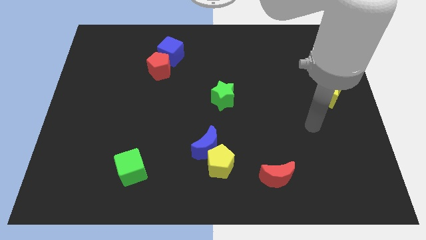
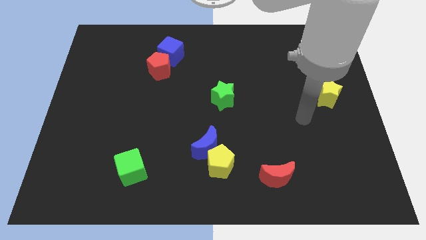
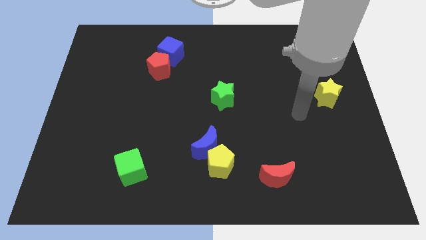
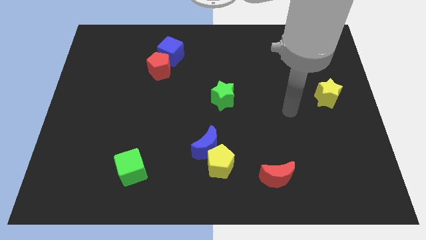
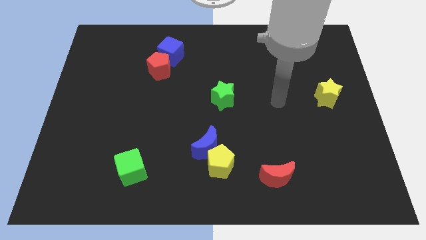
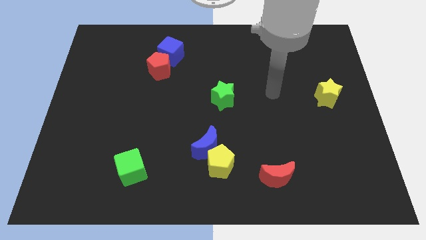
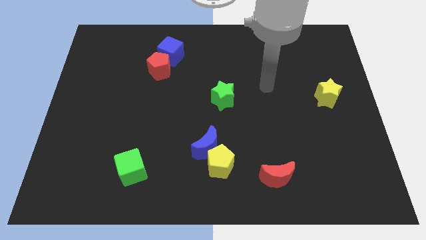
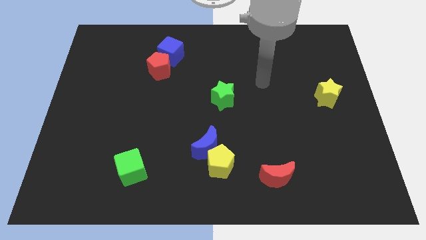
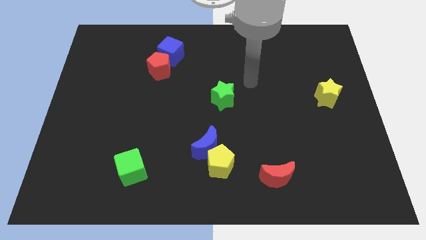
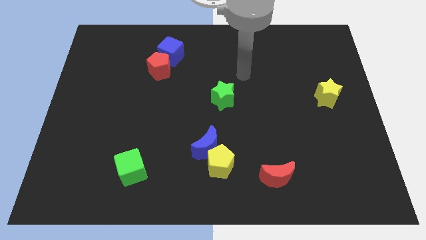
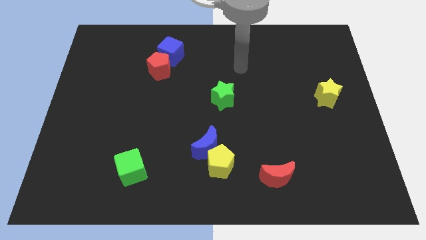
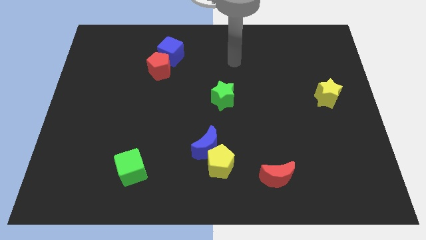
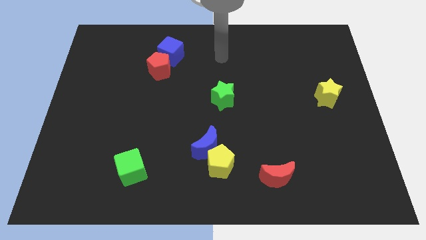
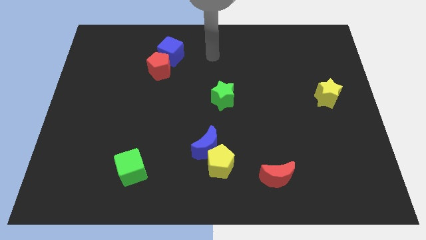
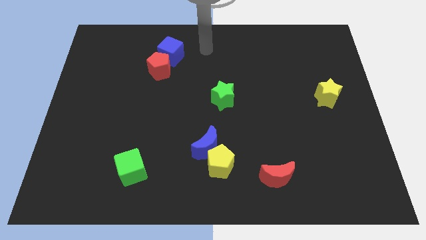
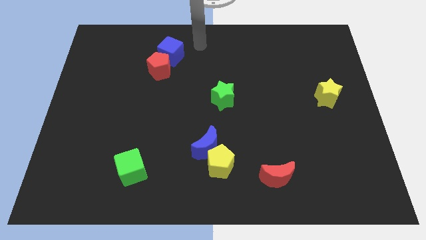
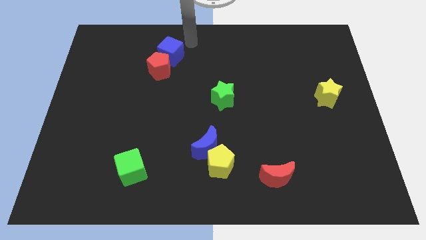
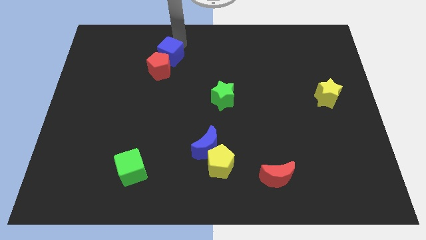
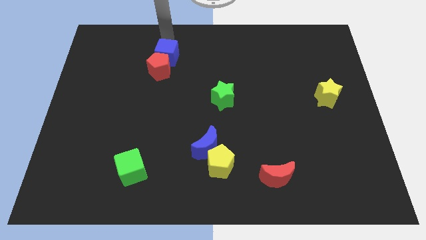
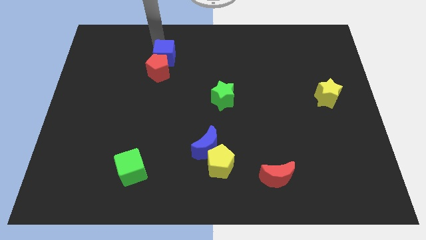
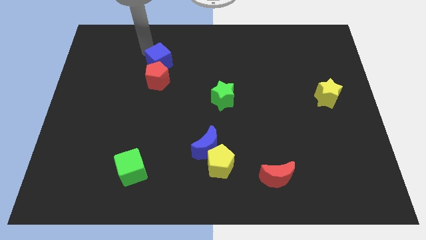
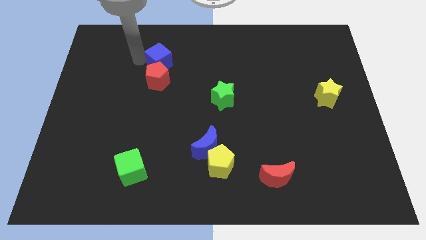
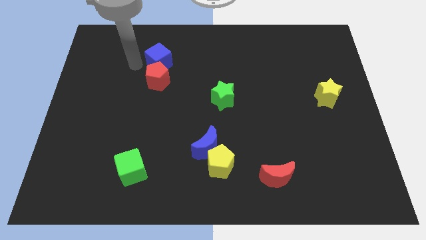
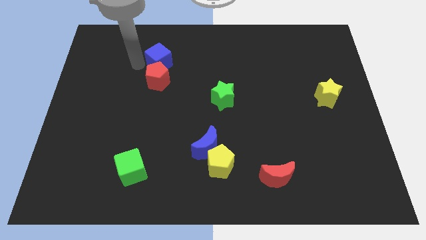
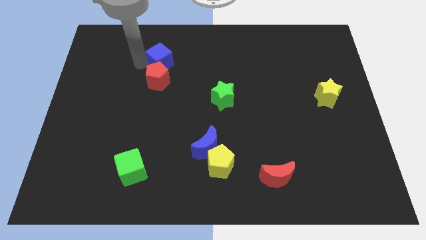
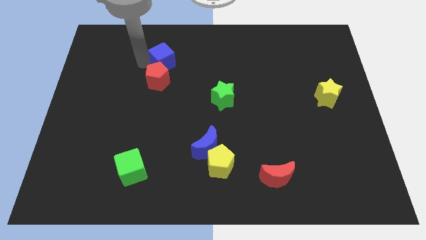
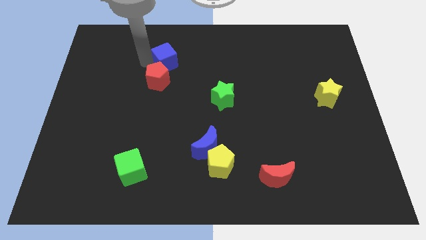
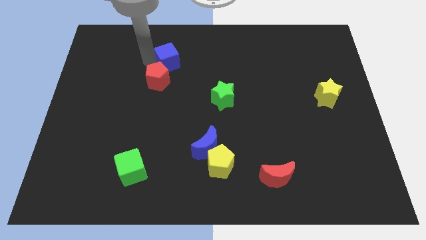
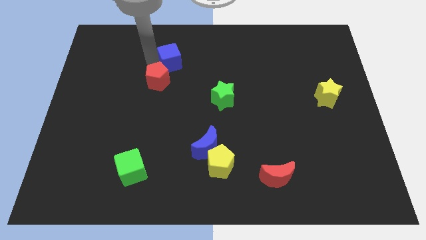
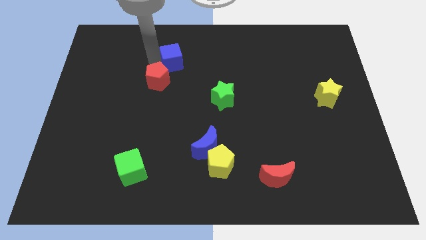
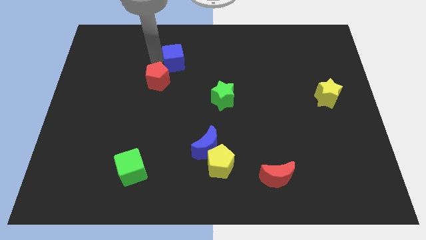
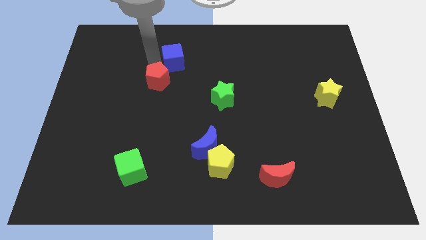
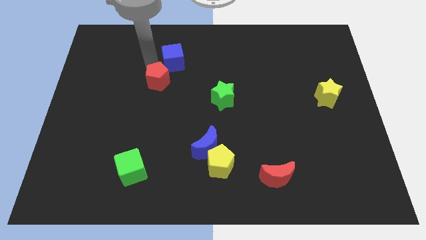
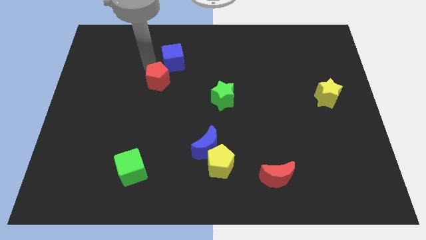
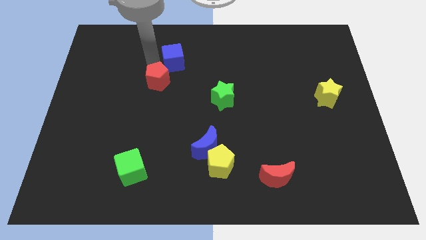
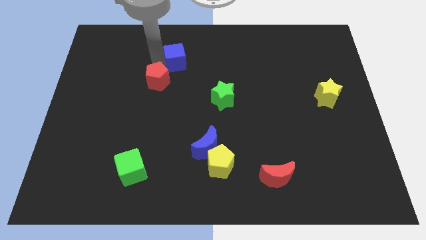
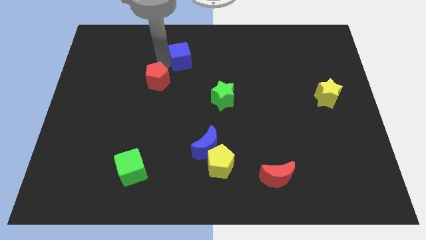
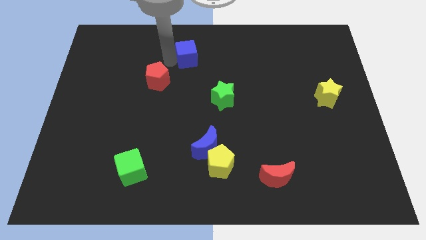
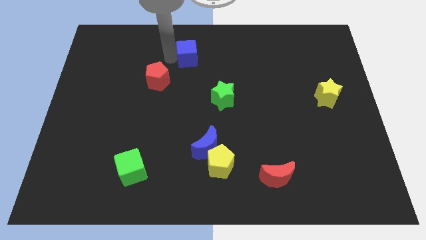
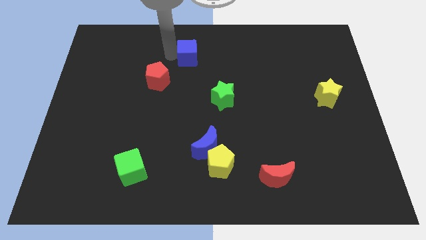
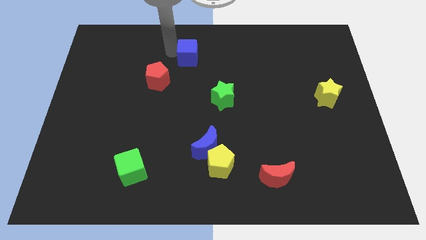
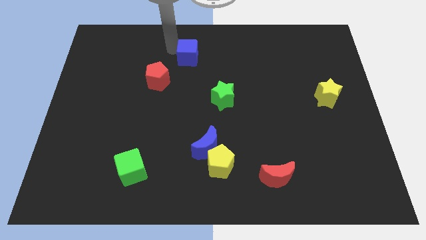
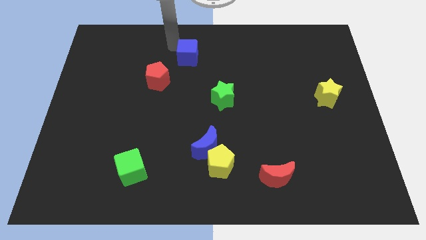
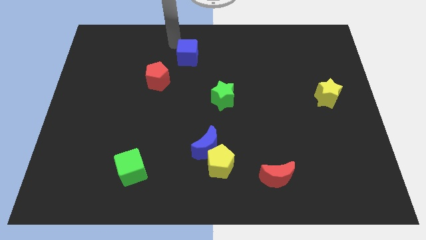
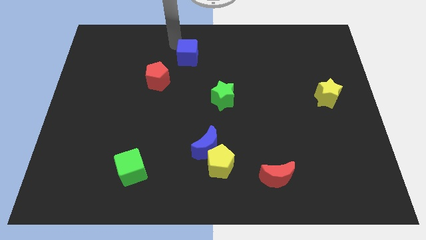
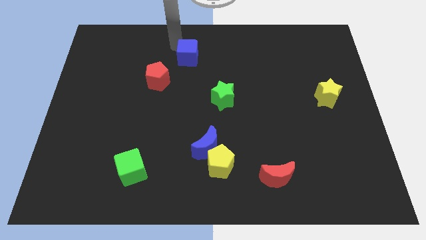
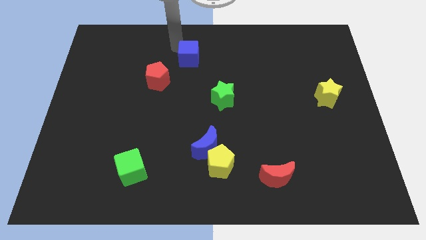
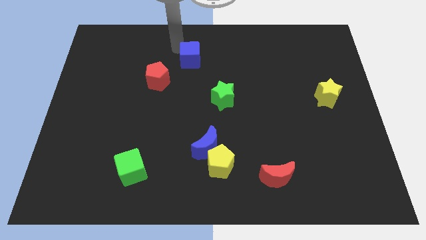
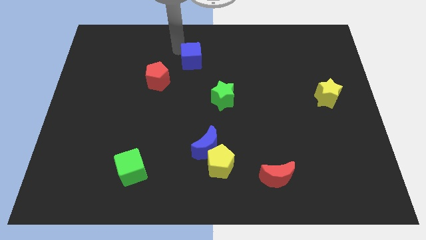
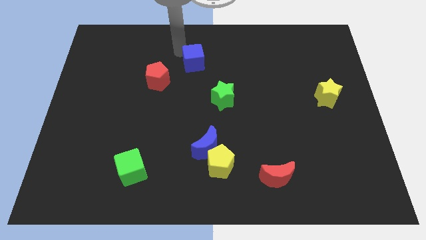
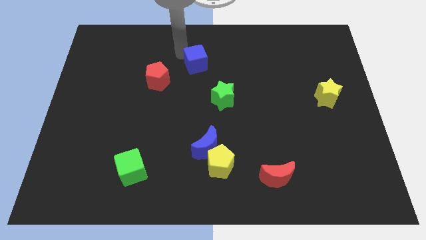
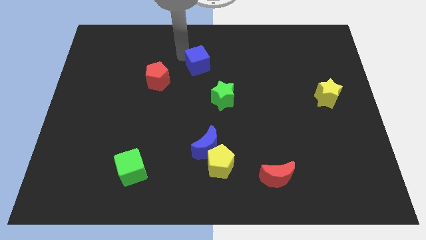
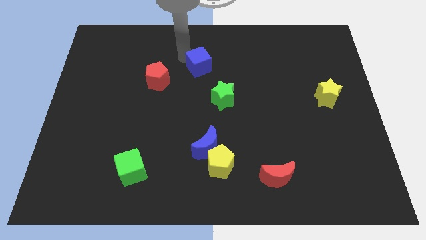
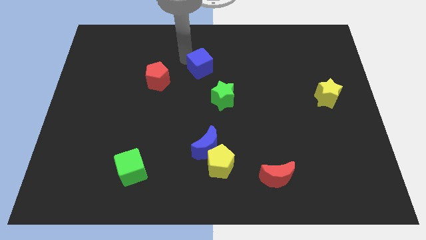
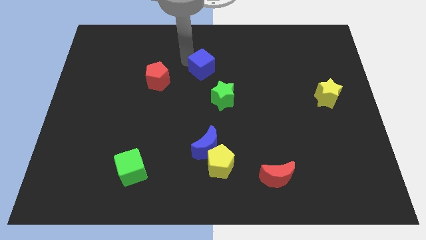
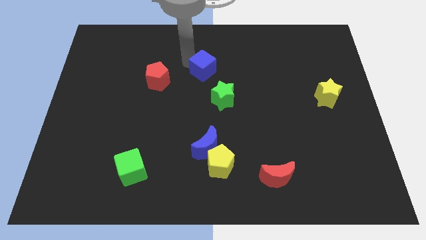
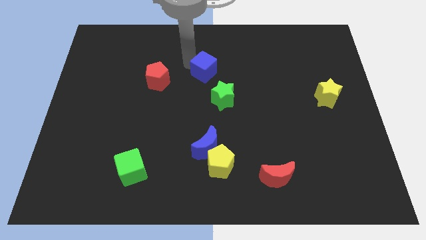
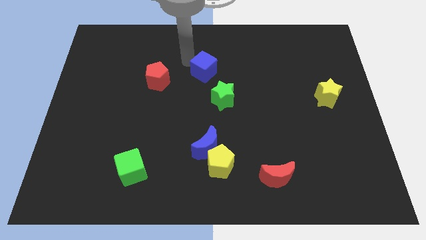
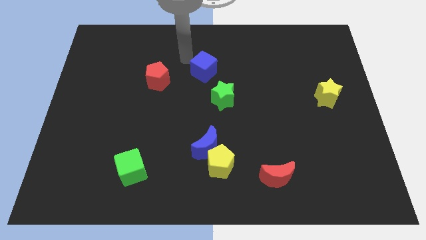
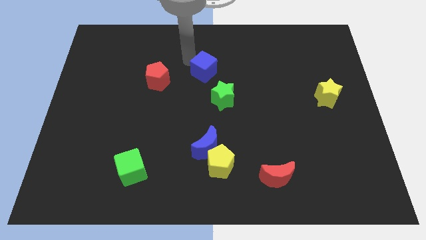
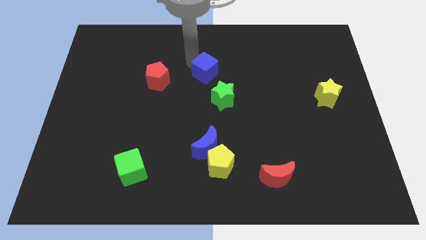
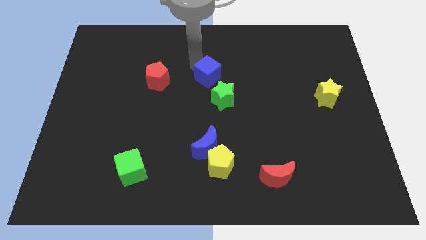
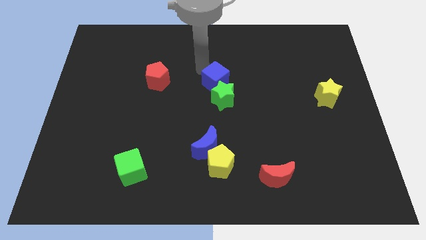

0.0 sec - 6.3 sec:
put the blue cube close to the green star
